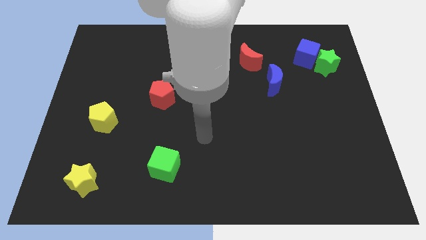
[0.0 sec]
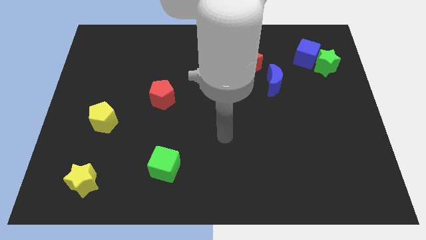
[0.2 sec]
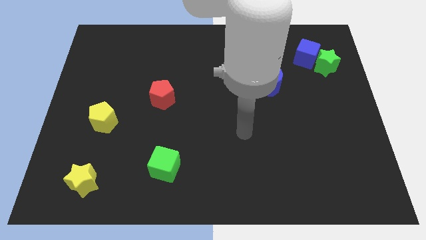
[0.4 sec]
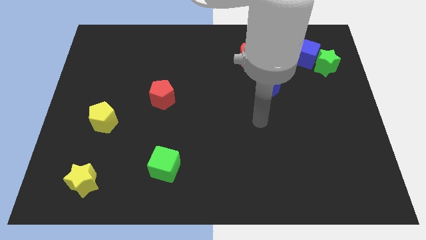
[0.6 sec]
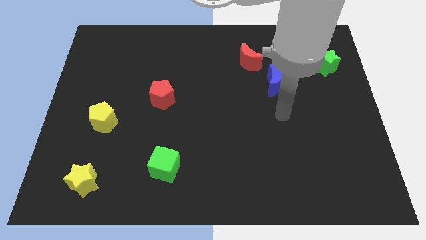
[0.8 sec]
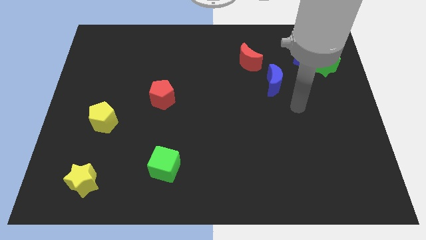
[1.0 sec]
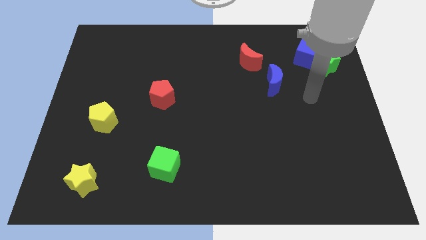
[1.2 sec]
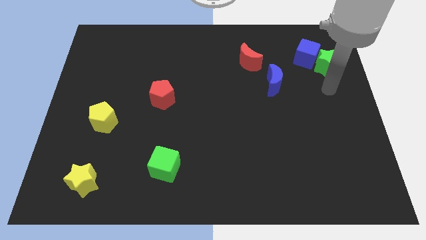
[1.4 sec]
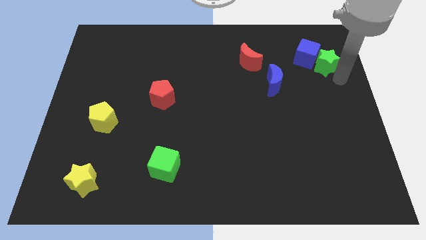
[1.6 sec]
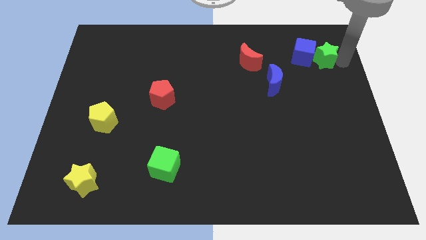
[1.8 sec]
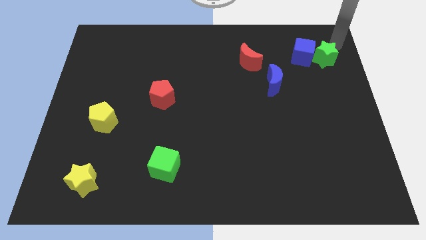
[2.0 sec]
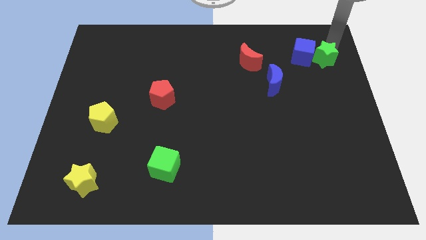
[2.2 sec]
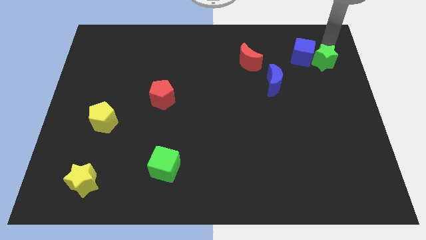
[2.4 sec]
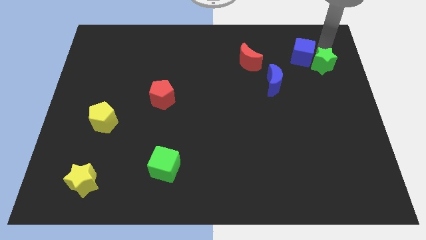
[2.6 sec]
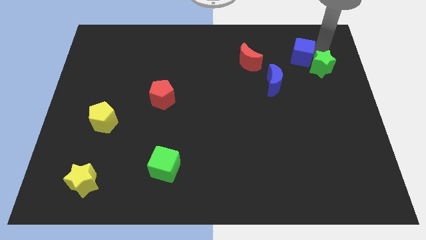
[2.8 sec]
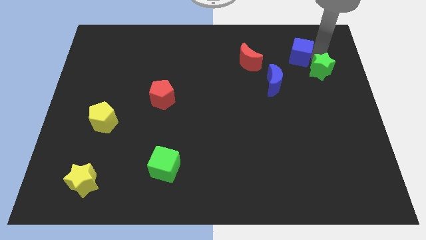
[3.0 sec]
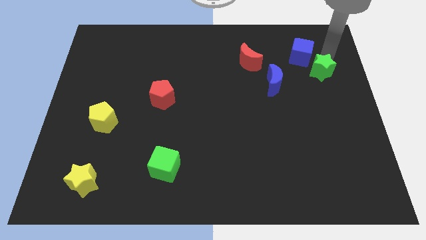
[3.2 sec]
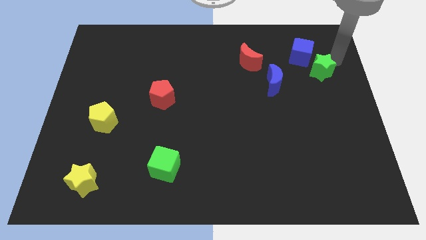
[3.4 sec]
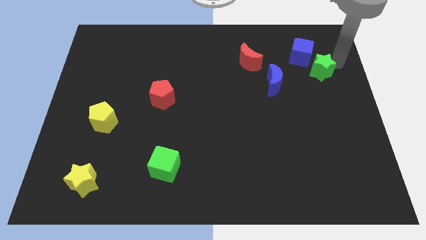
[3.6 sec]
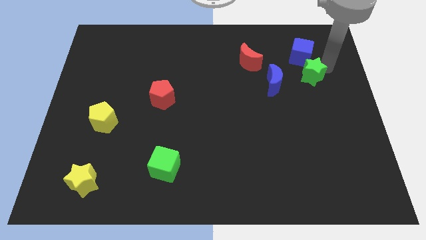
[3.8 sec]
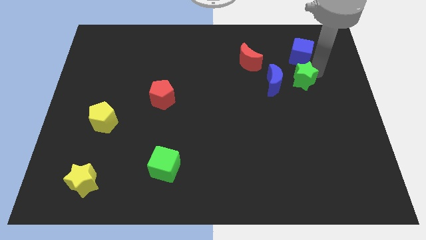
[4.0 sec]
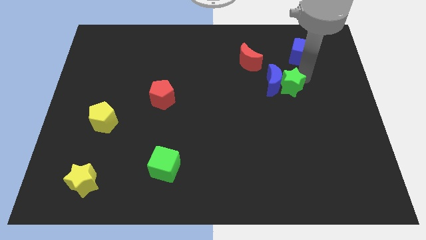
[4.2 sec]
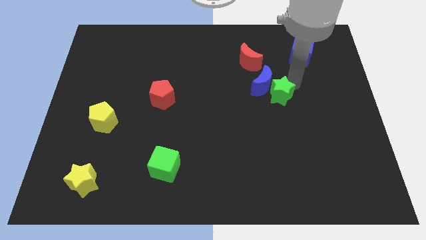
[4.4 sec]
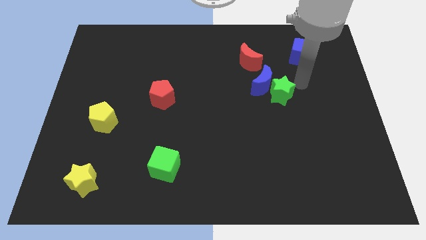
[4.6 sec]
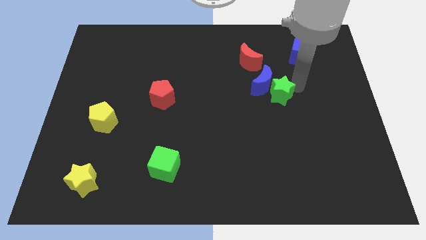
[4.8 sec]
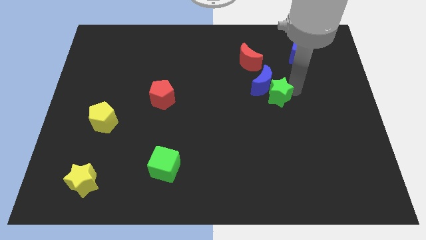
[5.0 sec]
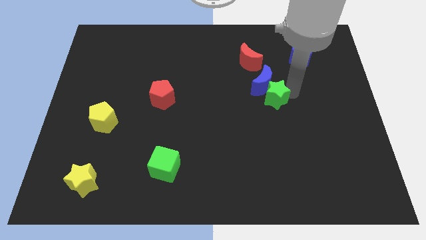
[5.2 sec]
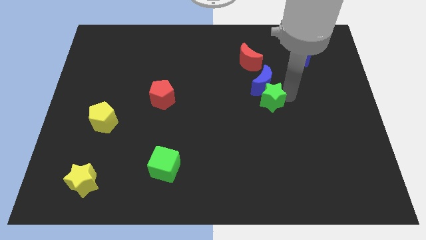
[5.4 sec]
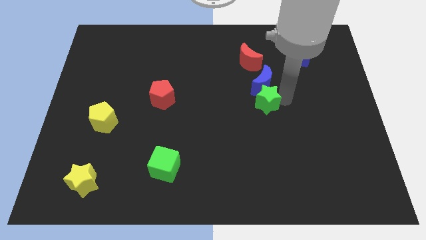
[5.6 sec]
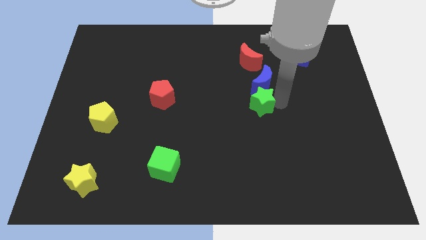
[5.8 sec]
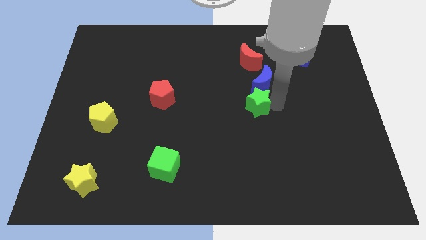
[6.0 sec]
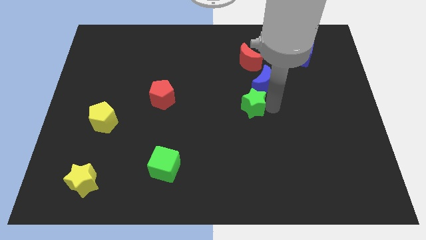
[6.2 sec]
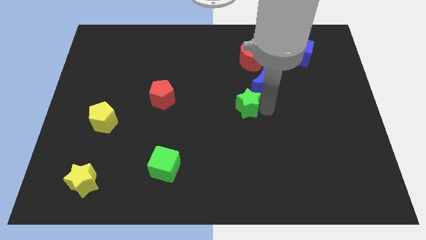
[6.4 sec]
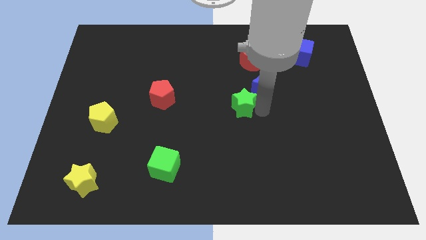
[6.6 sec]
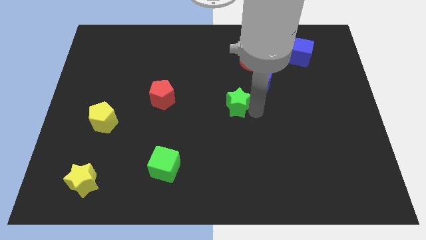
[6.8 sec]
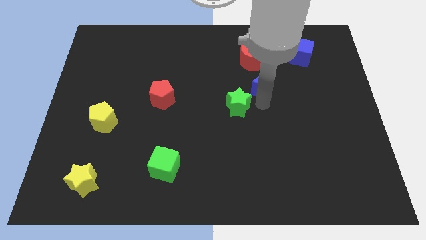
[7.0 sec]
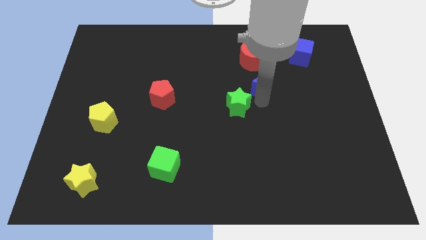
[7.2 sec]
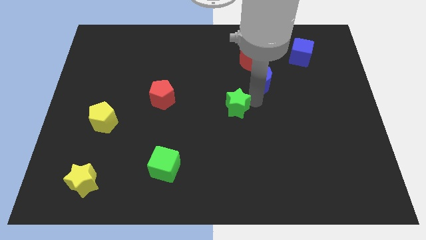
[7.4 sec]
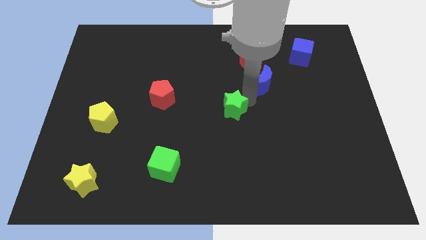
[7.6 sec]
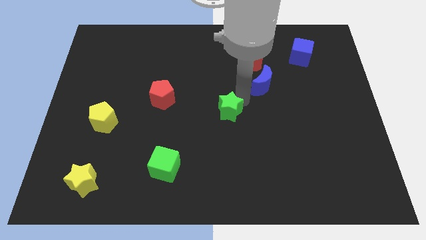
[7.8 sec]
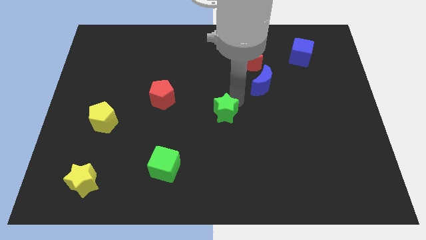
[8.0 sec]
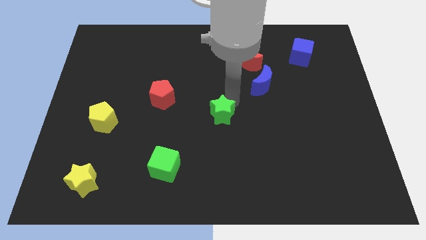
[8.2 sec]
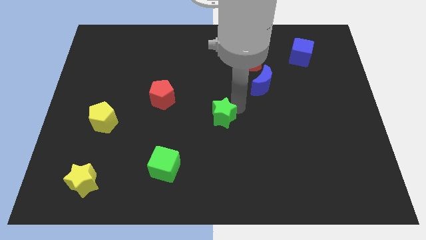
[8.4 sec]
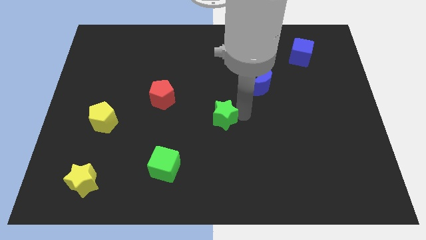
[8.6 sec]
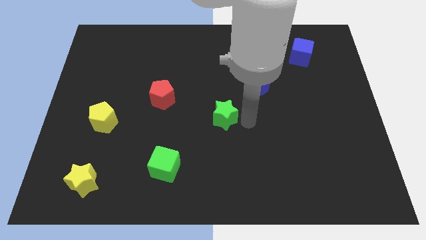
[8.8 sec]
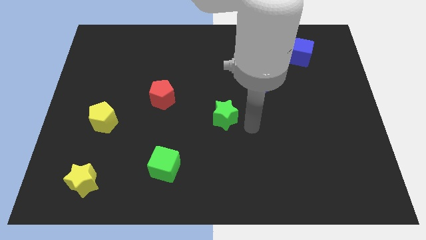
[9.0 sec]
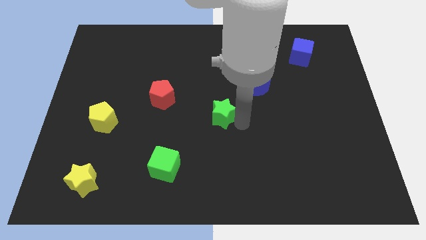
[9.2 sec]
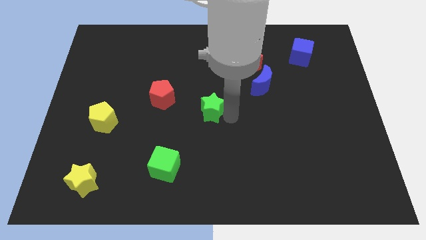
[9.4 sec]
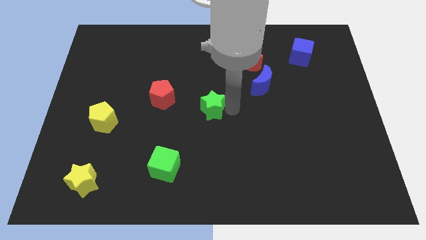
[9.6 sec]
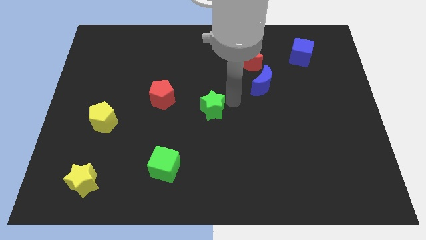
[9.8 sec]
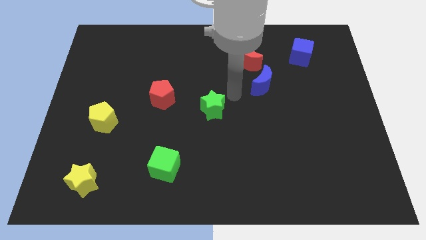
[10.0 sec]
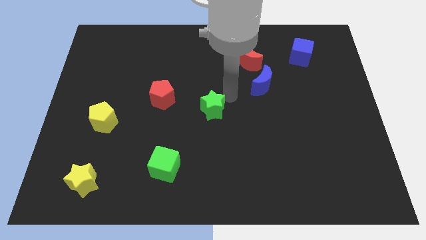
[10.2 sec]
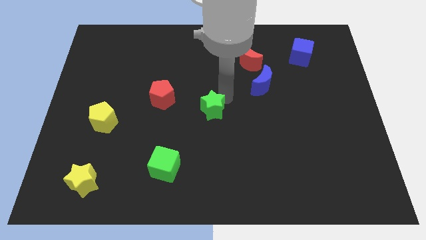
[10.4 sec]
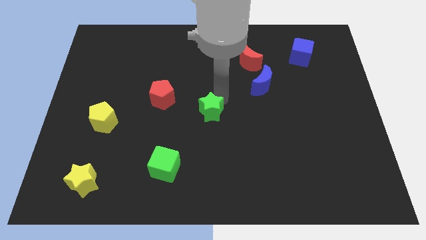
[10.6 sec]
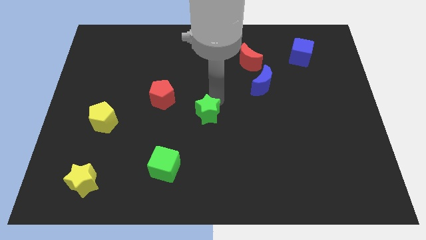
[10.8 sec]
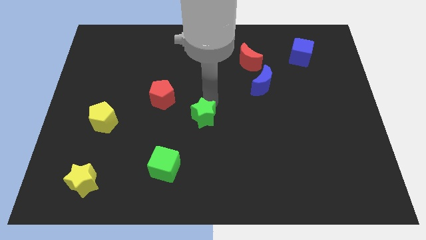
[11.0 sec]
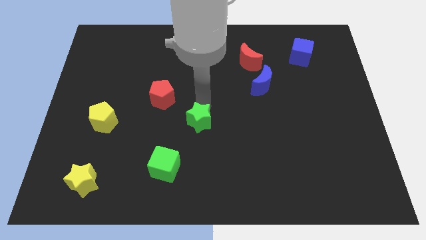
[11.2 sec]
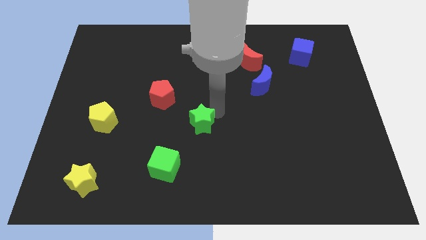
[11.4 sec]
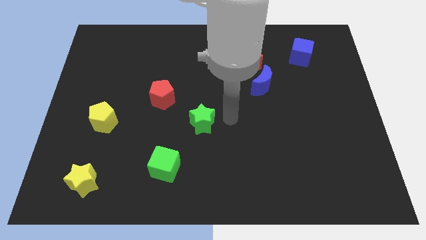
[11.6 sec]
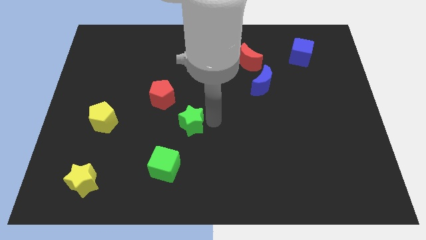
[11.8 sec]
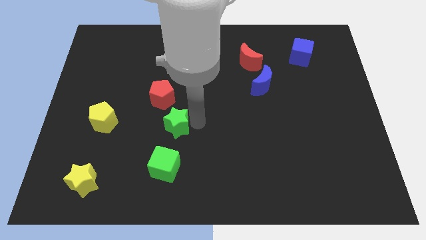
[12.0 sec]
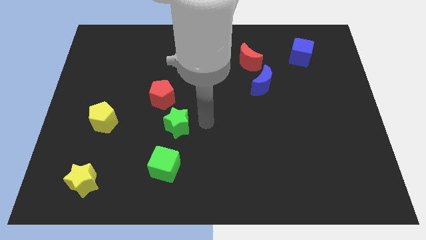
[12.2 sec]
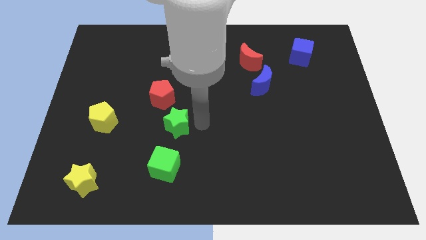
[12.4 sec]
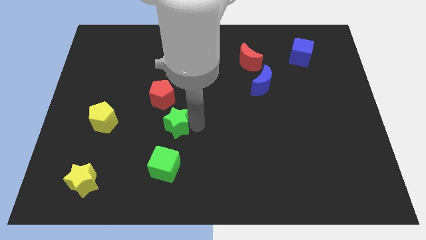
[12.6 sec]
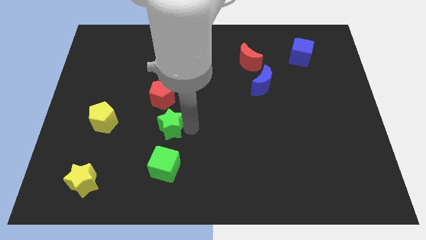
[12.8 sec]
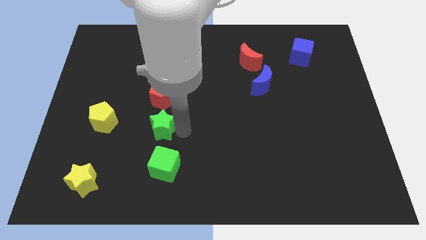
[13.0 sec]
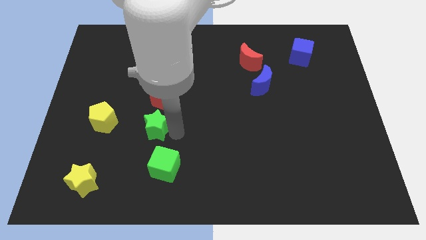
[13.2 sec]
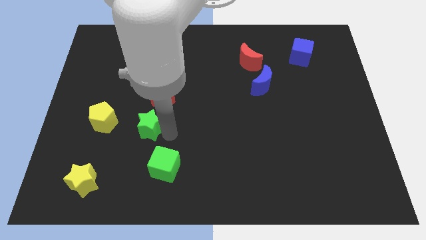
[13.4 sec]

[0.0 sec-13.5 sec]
push the green star to the bottom left of the red pentagon

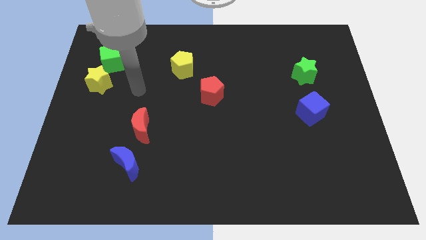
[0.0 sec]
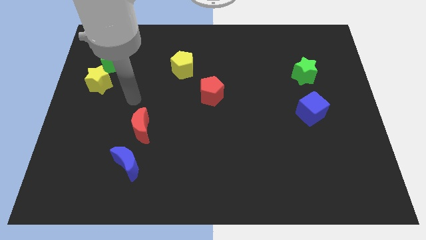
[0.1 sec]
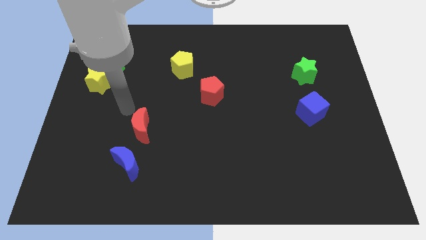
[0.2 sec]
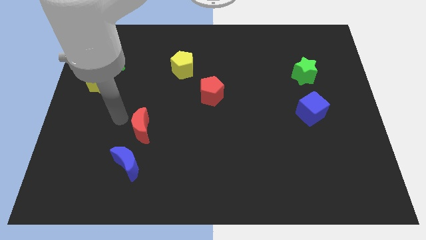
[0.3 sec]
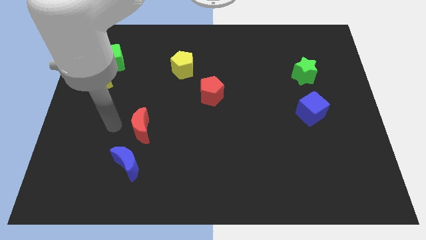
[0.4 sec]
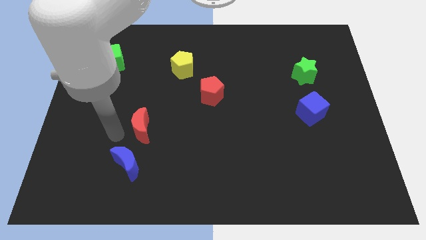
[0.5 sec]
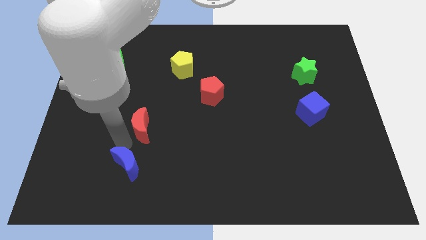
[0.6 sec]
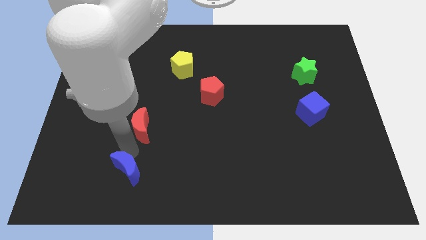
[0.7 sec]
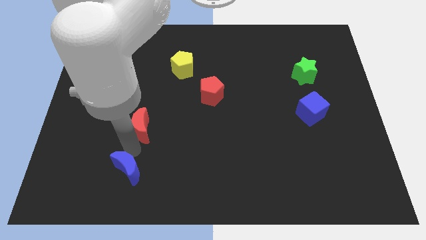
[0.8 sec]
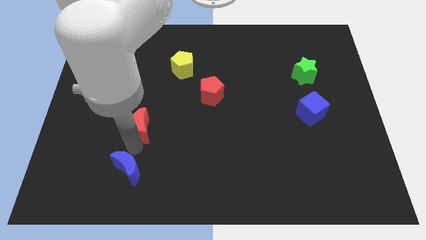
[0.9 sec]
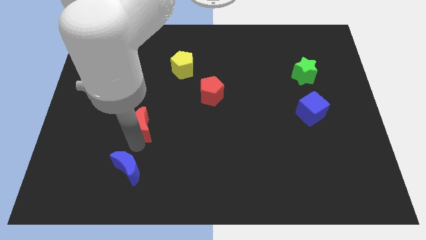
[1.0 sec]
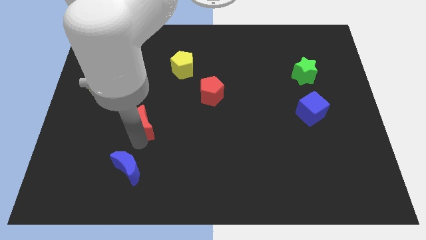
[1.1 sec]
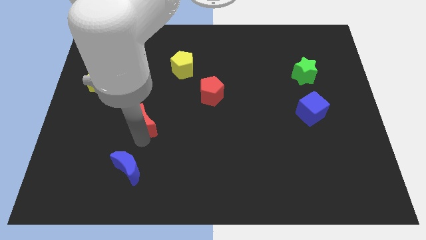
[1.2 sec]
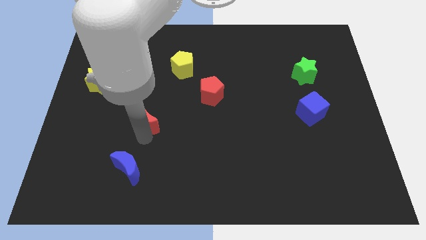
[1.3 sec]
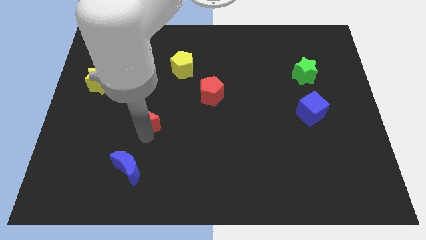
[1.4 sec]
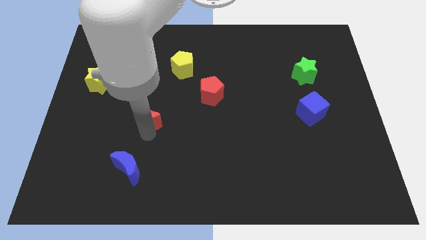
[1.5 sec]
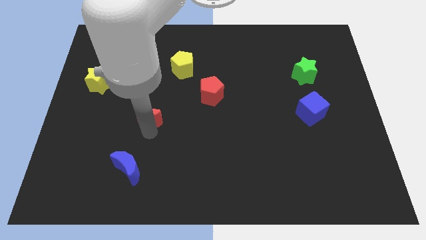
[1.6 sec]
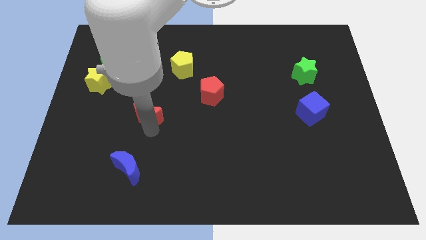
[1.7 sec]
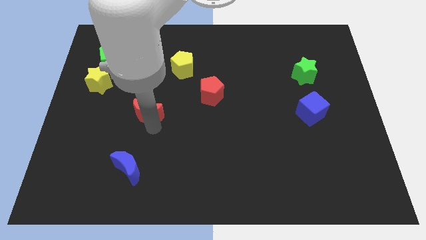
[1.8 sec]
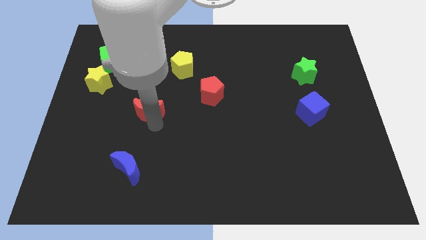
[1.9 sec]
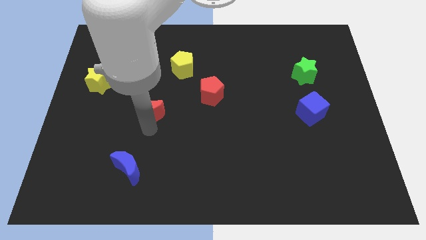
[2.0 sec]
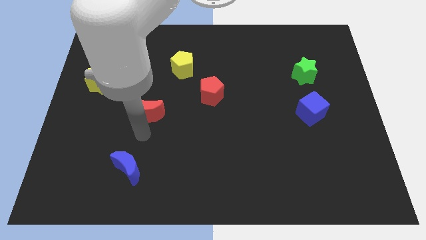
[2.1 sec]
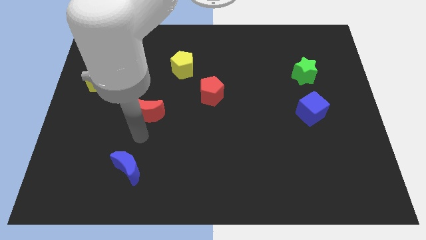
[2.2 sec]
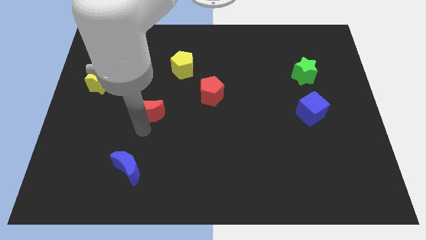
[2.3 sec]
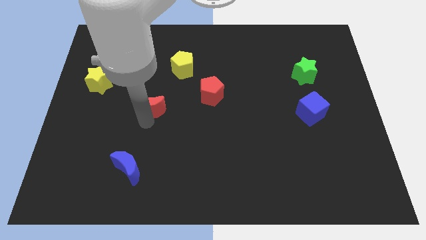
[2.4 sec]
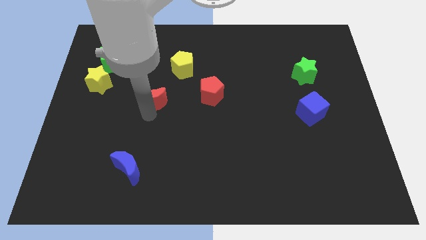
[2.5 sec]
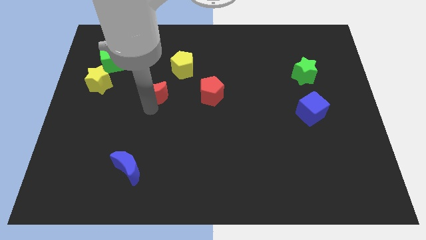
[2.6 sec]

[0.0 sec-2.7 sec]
move the red moon to the bottom left of the yellow pentagon
